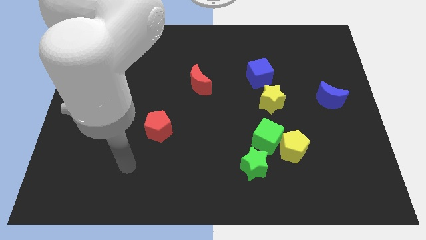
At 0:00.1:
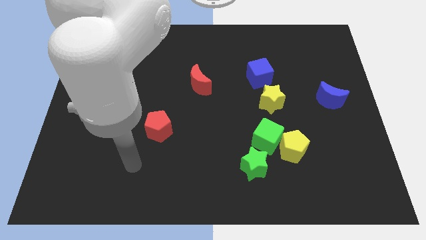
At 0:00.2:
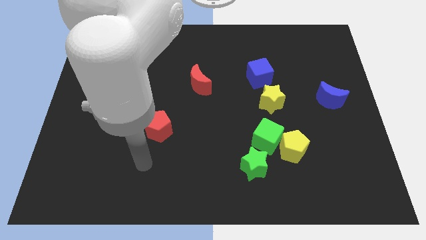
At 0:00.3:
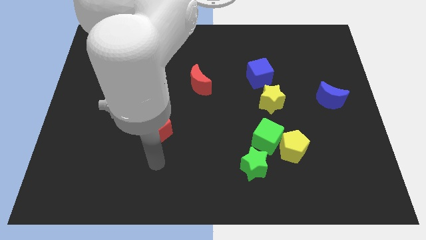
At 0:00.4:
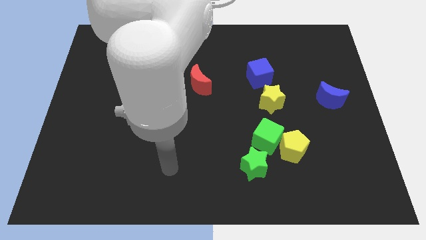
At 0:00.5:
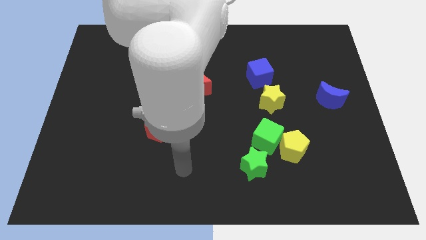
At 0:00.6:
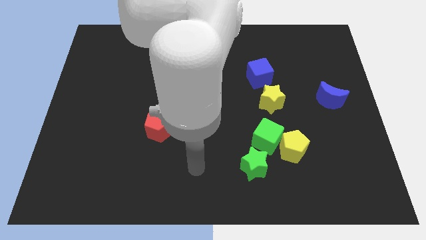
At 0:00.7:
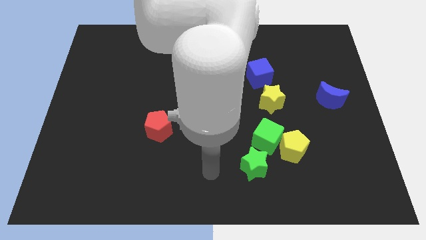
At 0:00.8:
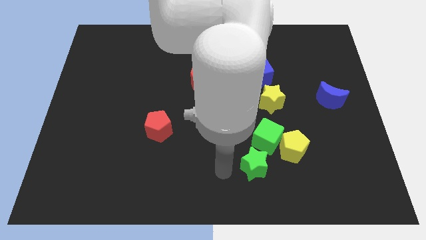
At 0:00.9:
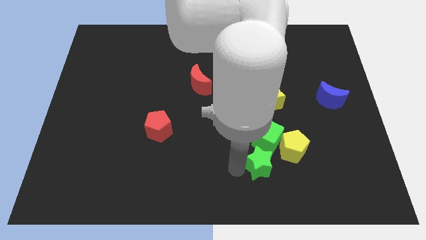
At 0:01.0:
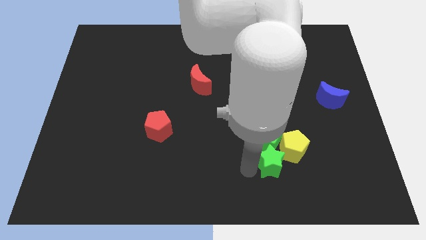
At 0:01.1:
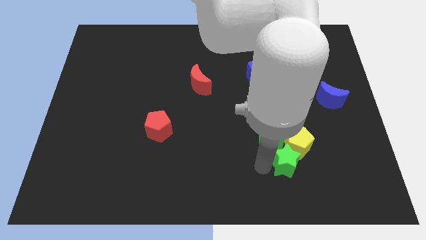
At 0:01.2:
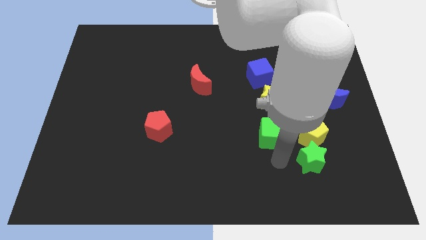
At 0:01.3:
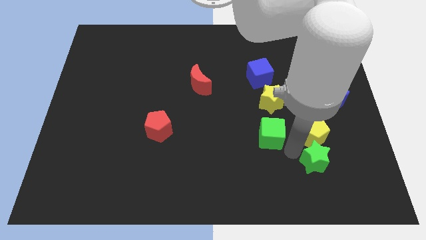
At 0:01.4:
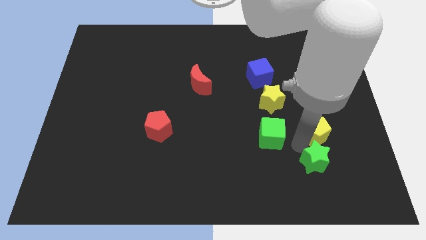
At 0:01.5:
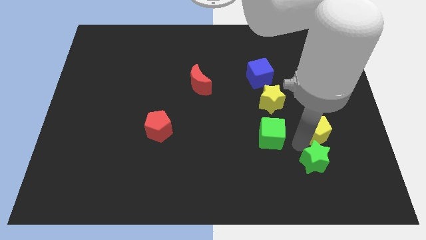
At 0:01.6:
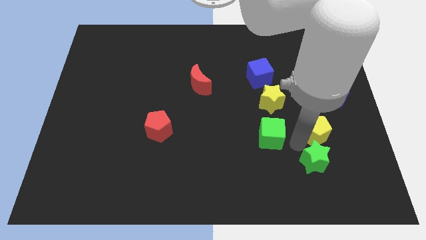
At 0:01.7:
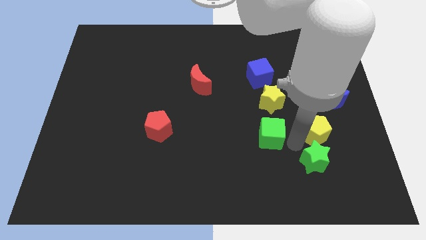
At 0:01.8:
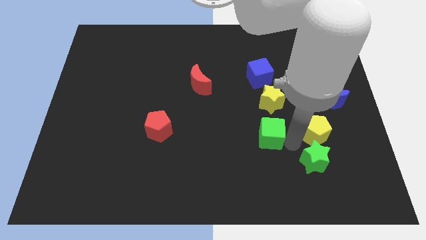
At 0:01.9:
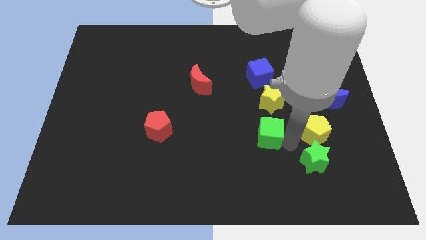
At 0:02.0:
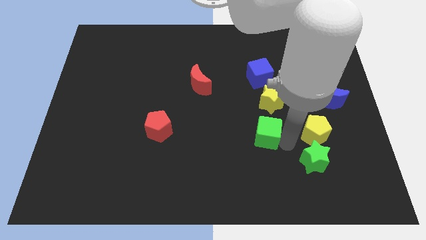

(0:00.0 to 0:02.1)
move the green cube away from the yellow pentagon and green star

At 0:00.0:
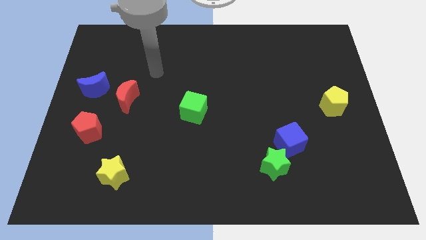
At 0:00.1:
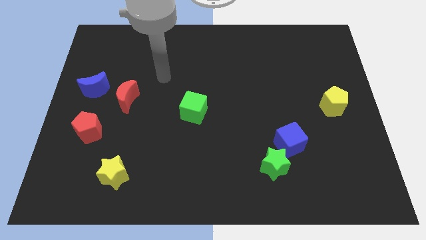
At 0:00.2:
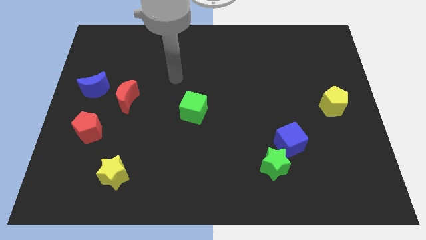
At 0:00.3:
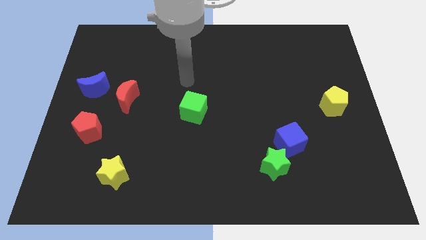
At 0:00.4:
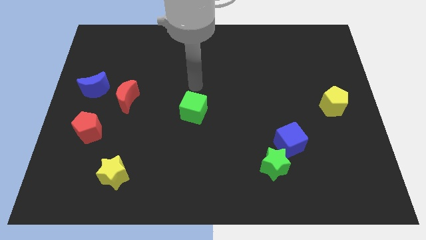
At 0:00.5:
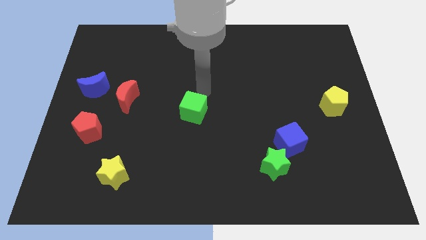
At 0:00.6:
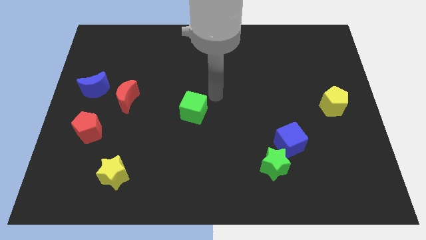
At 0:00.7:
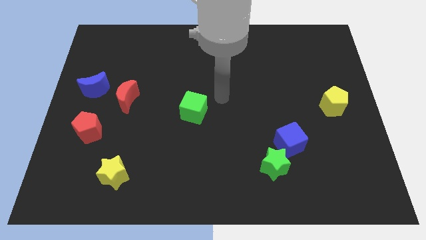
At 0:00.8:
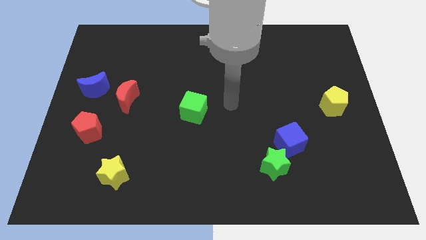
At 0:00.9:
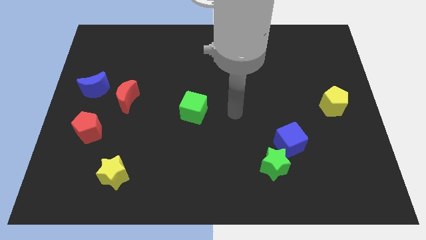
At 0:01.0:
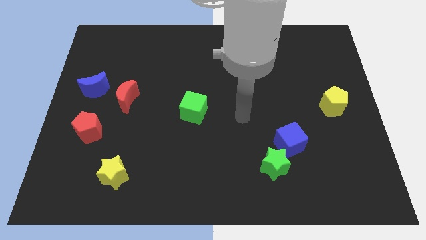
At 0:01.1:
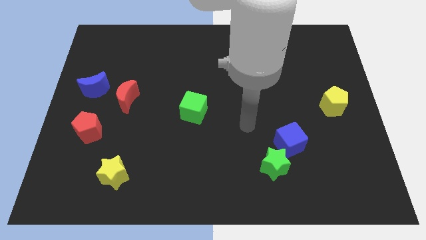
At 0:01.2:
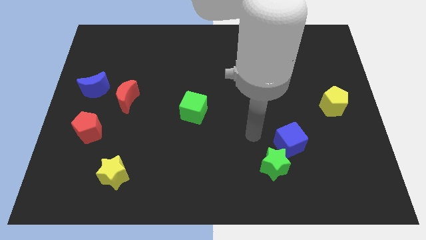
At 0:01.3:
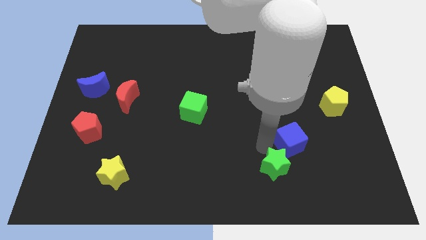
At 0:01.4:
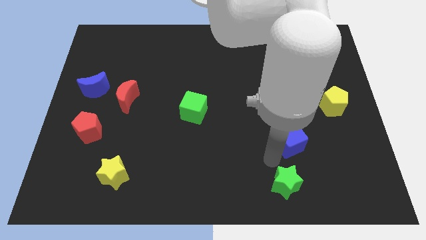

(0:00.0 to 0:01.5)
pull the blue cube apart from the green star

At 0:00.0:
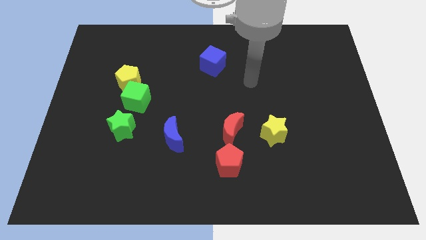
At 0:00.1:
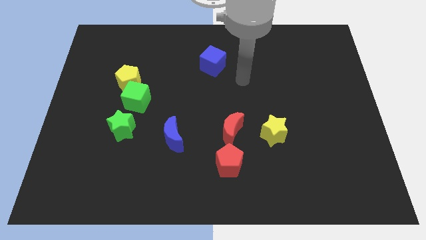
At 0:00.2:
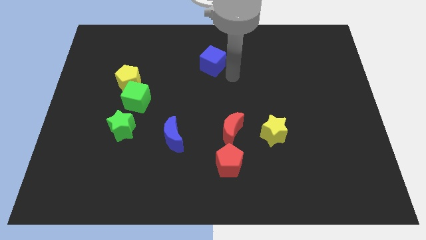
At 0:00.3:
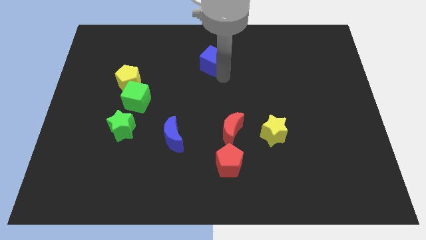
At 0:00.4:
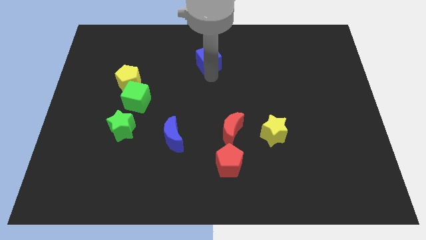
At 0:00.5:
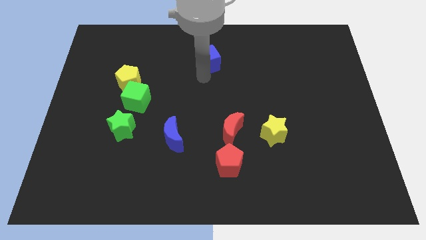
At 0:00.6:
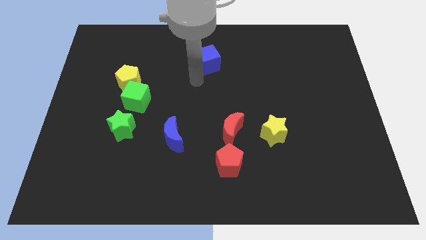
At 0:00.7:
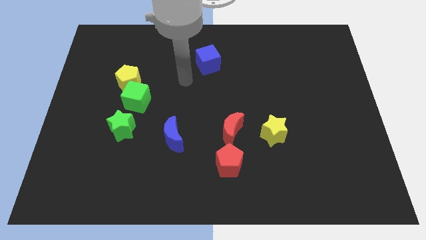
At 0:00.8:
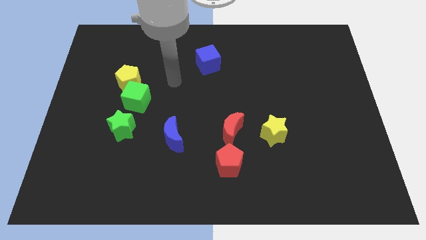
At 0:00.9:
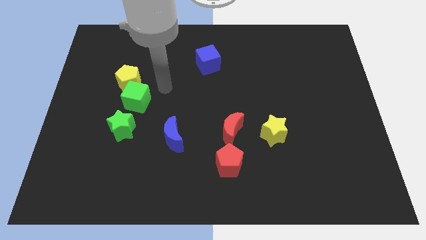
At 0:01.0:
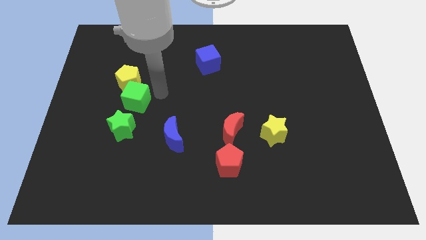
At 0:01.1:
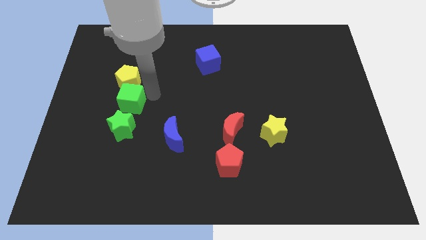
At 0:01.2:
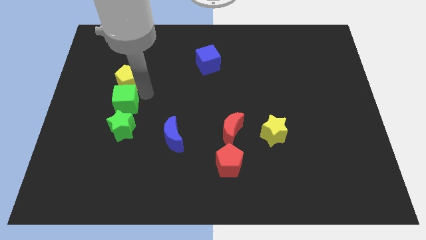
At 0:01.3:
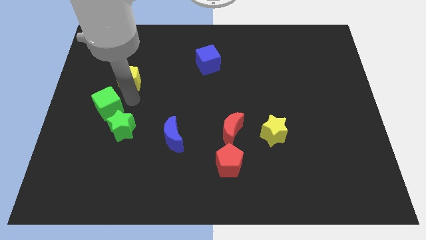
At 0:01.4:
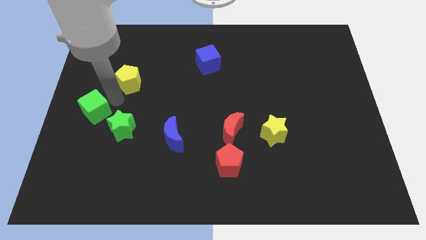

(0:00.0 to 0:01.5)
move the yellow pentagon away from the green cube

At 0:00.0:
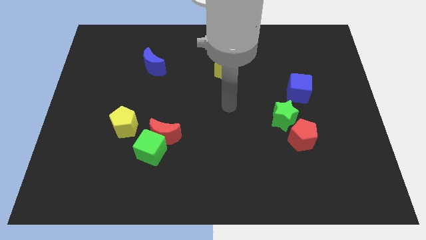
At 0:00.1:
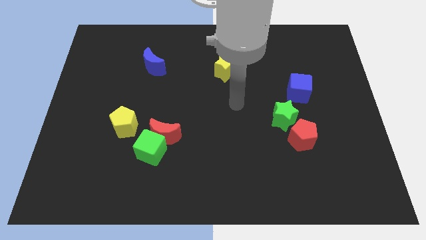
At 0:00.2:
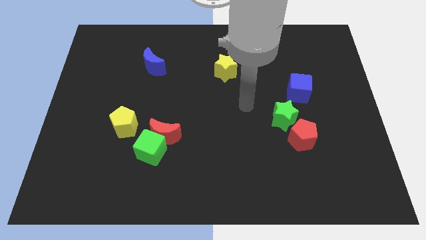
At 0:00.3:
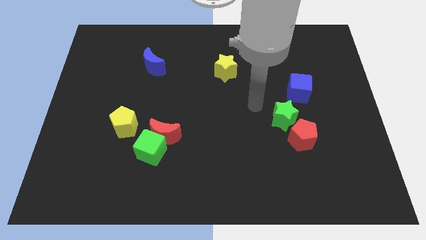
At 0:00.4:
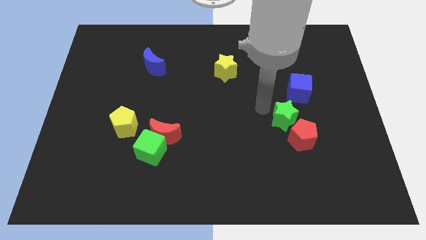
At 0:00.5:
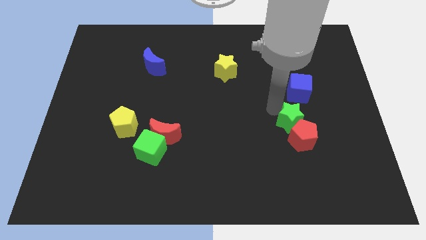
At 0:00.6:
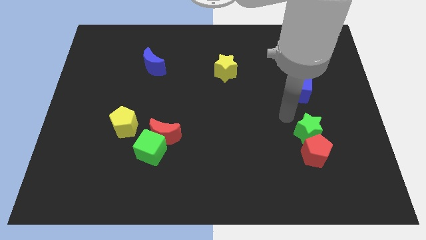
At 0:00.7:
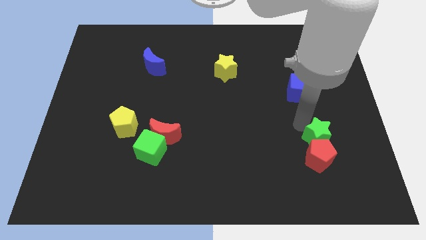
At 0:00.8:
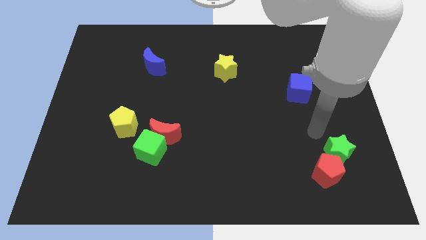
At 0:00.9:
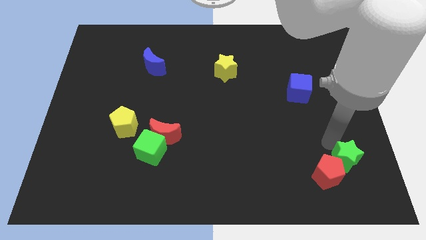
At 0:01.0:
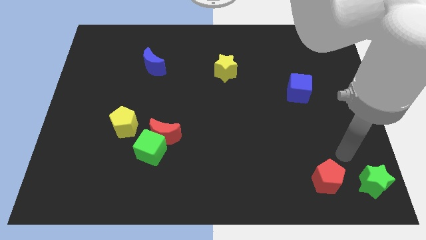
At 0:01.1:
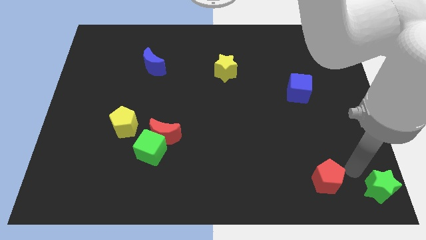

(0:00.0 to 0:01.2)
separate the red pentagon from the green star

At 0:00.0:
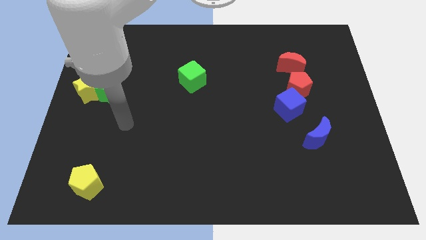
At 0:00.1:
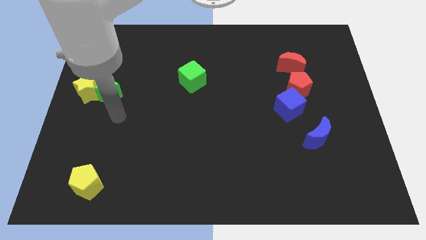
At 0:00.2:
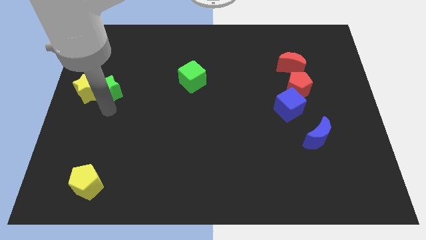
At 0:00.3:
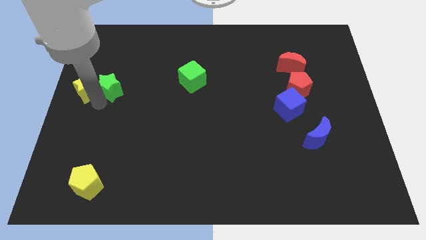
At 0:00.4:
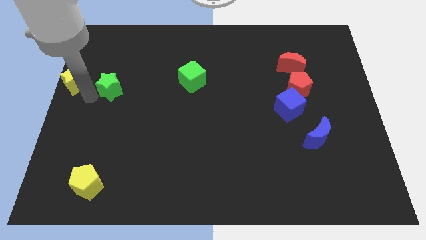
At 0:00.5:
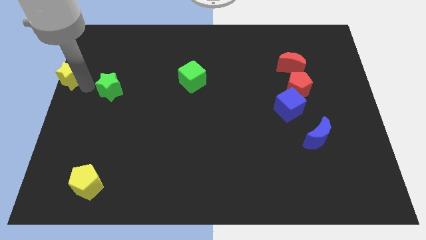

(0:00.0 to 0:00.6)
move the green star away from the yellow star

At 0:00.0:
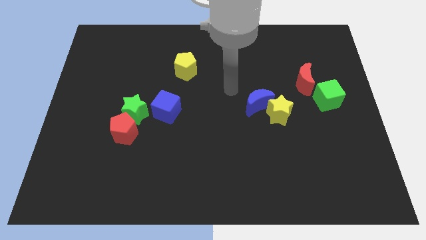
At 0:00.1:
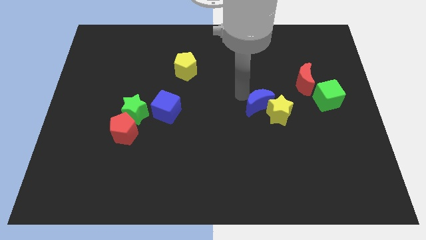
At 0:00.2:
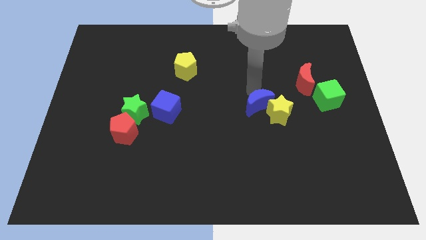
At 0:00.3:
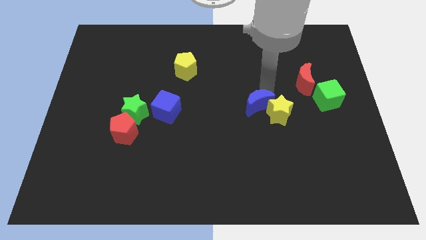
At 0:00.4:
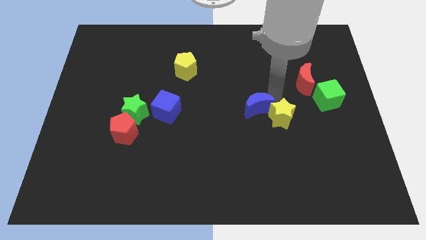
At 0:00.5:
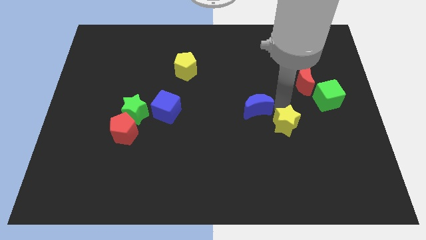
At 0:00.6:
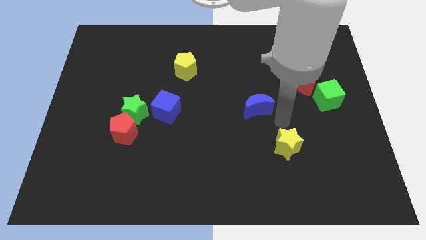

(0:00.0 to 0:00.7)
move the blue moon away from the yellow star

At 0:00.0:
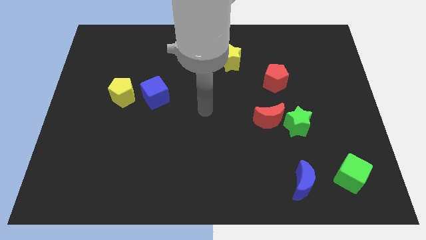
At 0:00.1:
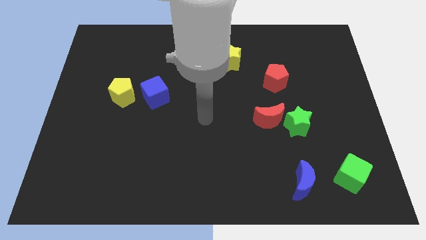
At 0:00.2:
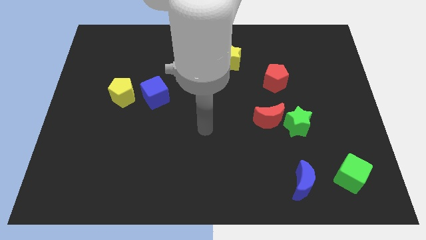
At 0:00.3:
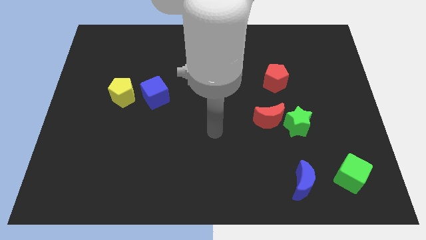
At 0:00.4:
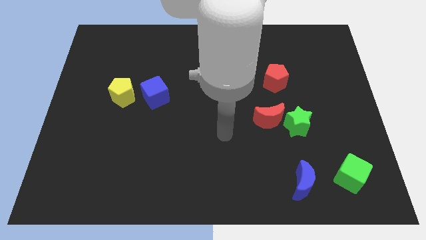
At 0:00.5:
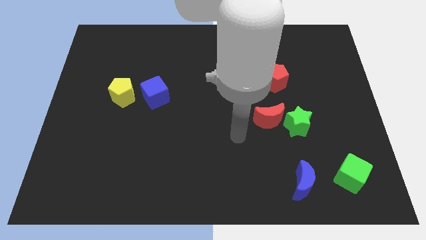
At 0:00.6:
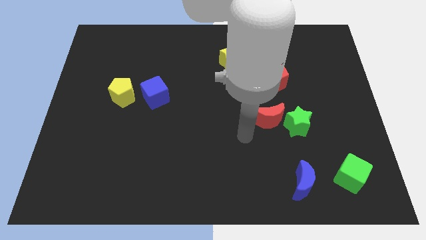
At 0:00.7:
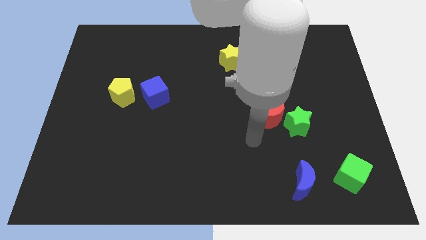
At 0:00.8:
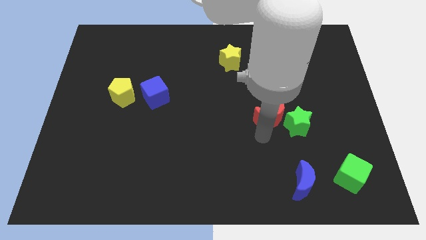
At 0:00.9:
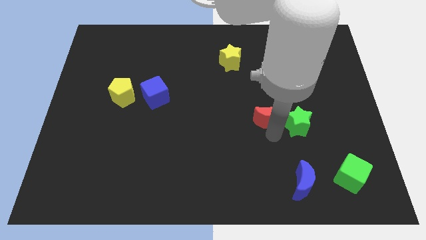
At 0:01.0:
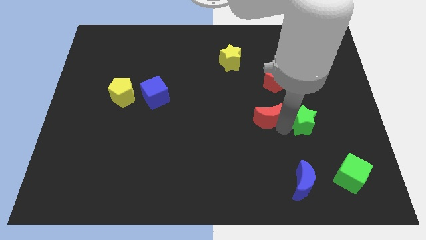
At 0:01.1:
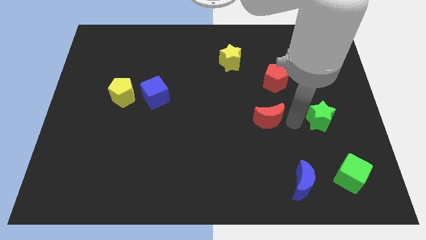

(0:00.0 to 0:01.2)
separate the red moon from the green star

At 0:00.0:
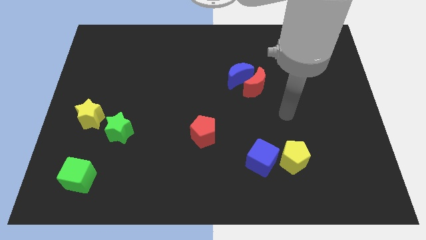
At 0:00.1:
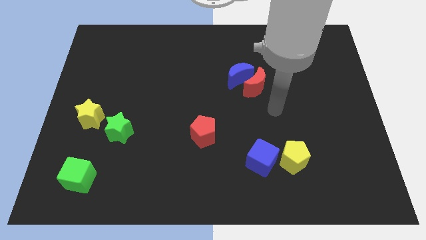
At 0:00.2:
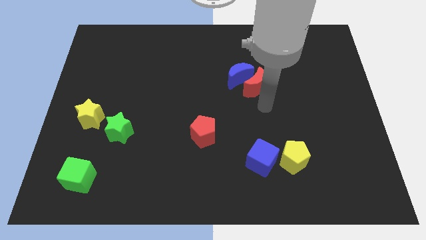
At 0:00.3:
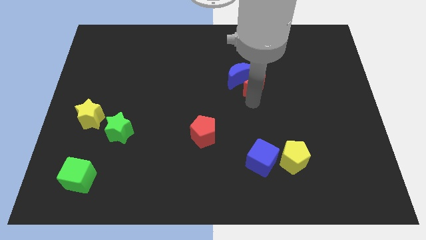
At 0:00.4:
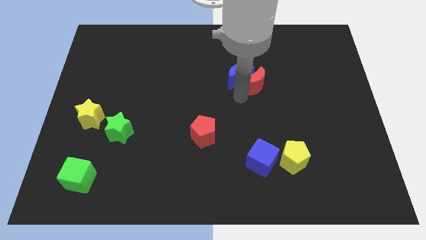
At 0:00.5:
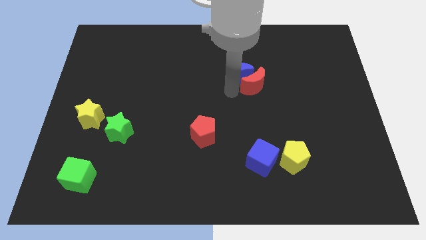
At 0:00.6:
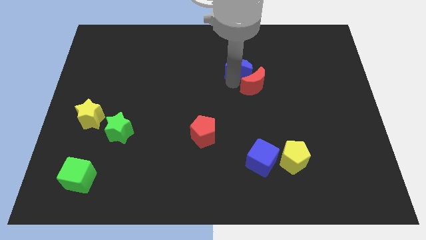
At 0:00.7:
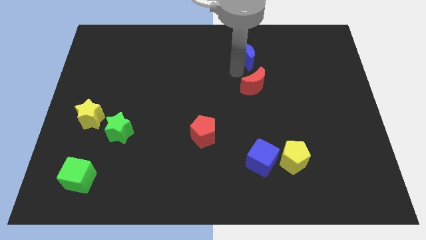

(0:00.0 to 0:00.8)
separate the red moon from the blue moon
